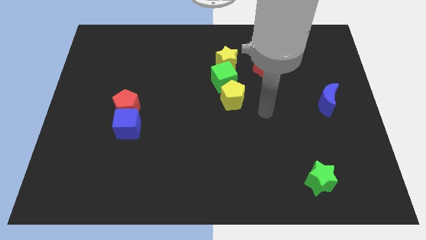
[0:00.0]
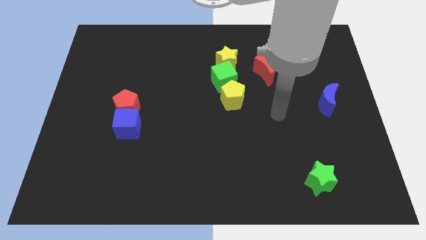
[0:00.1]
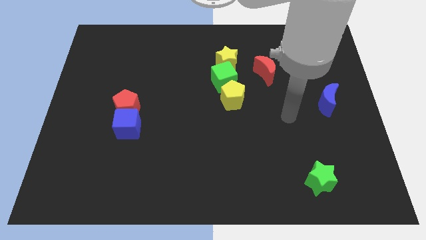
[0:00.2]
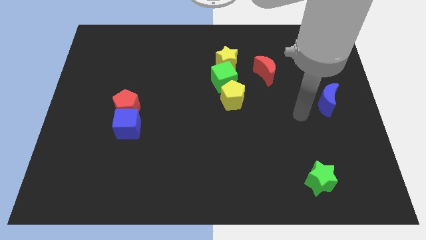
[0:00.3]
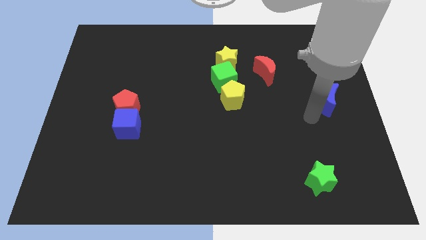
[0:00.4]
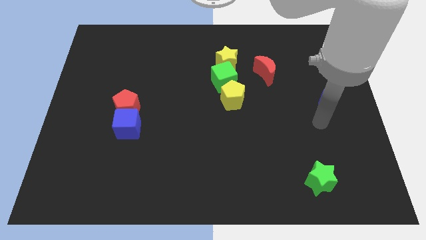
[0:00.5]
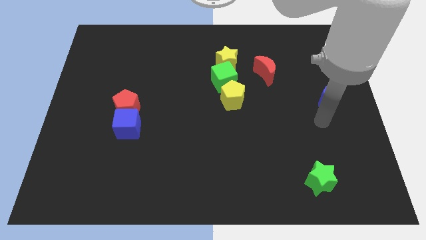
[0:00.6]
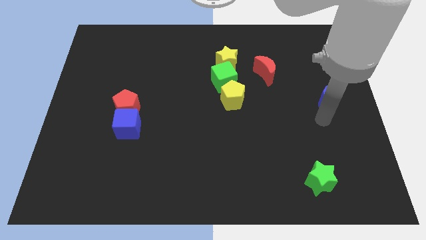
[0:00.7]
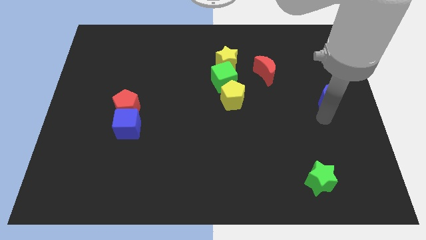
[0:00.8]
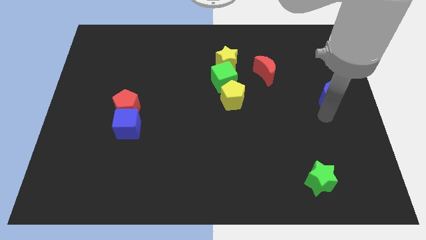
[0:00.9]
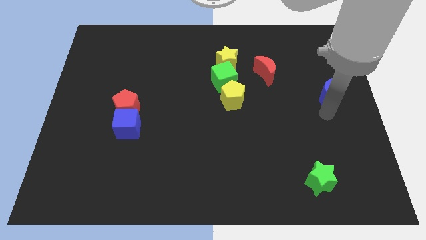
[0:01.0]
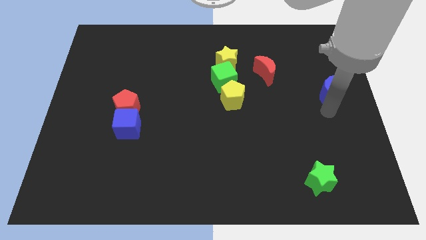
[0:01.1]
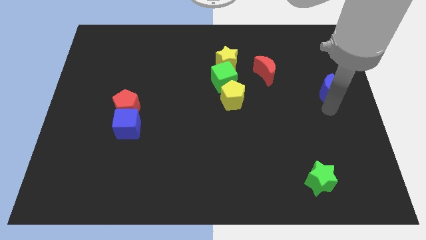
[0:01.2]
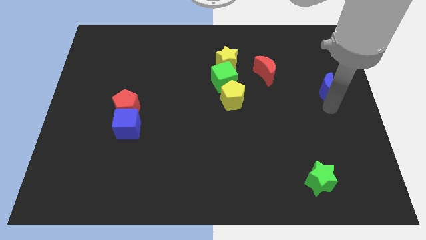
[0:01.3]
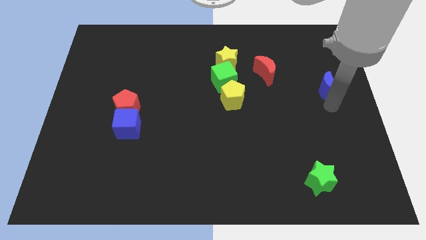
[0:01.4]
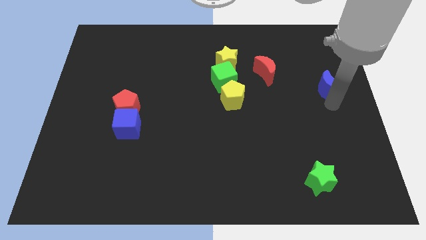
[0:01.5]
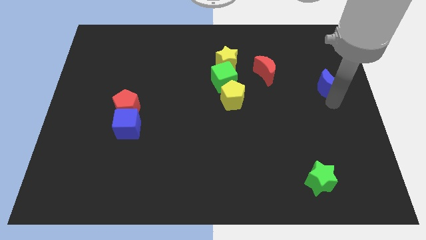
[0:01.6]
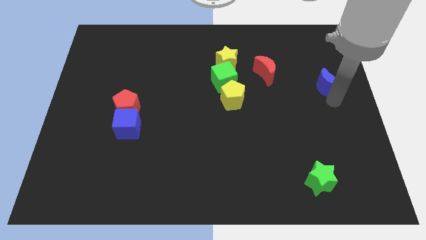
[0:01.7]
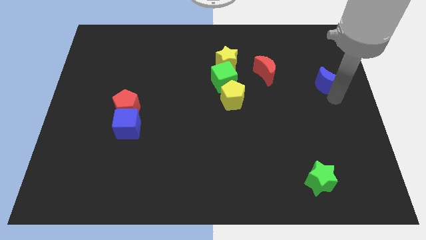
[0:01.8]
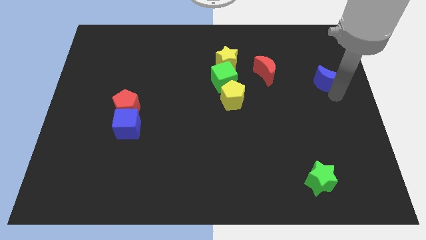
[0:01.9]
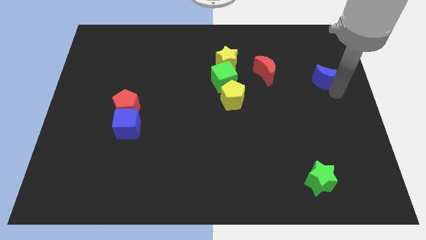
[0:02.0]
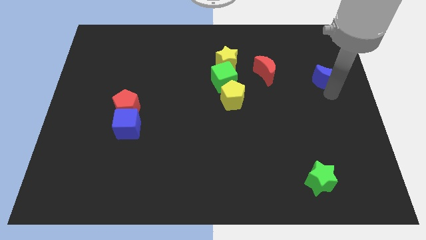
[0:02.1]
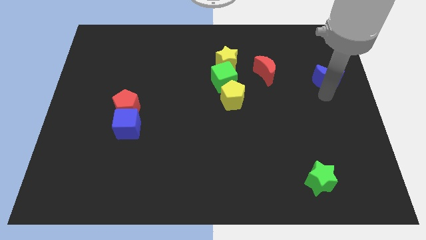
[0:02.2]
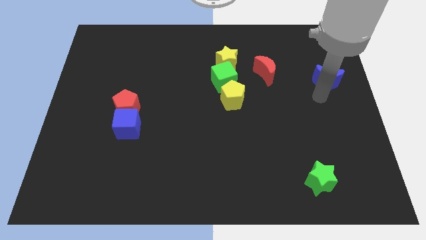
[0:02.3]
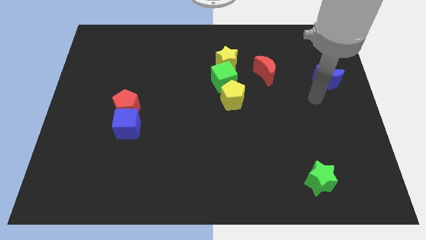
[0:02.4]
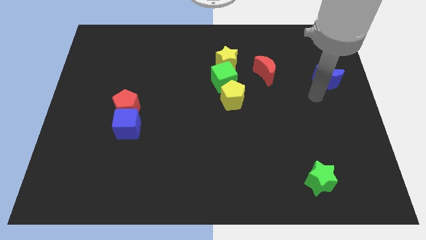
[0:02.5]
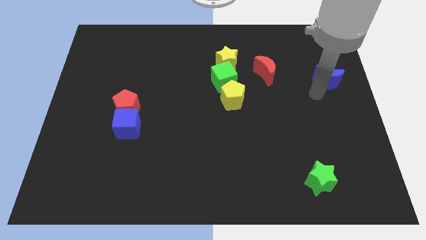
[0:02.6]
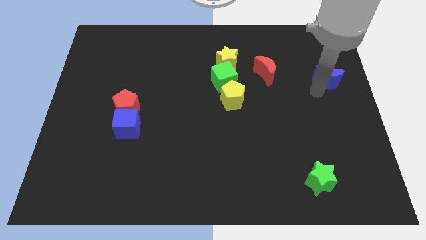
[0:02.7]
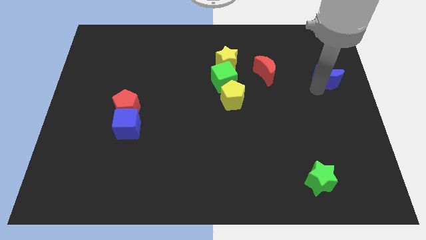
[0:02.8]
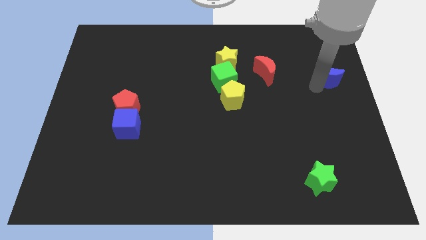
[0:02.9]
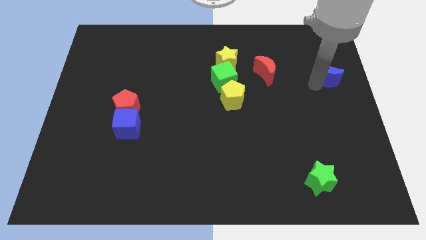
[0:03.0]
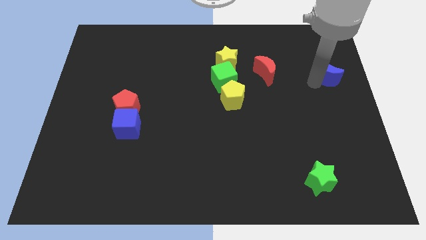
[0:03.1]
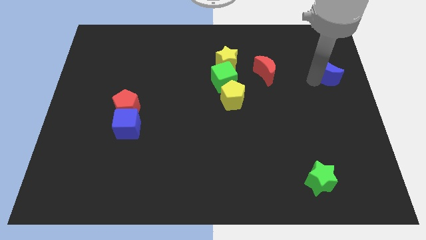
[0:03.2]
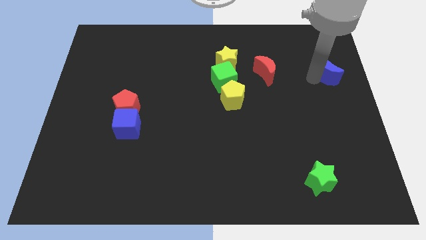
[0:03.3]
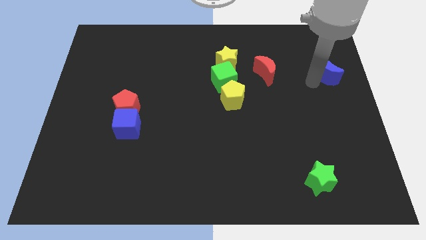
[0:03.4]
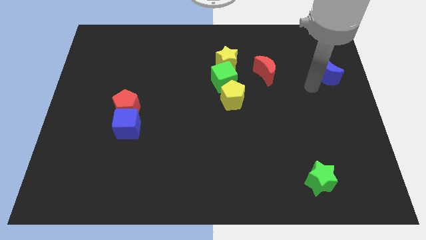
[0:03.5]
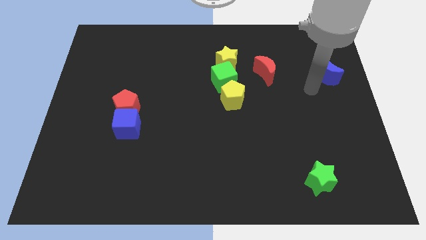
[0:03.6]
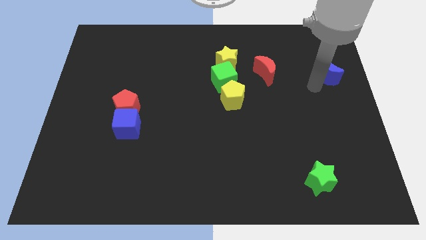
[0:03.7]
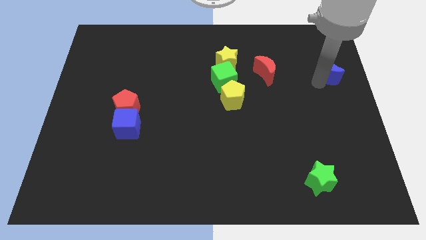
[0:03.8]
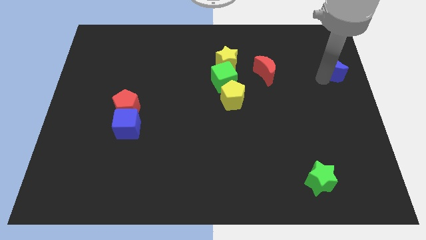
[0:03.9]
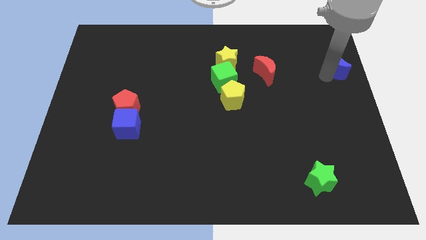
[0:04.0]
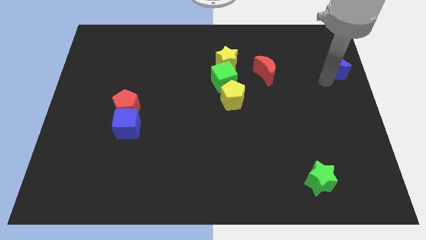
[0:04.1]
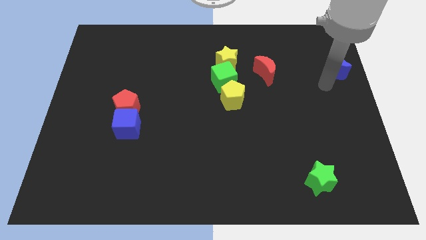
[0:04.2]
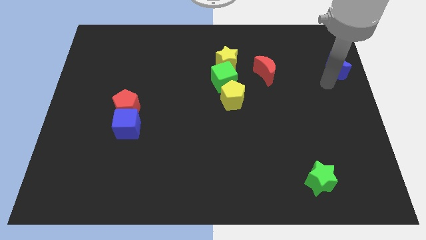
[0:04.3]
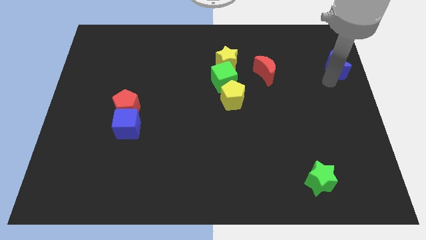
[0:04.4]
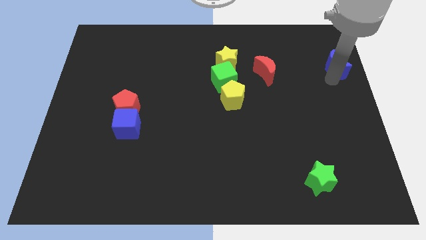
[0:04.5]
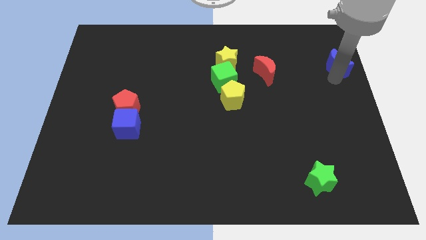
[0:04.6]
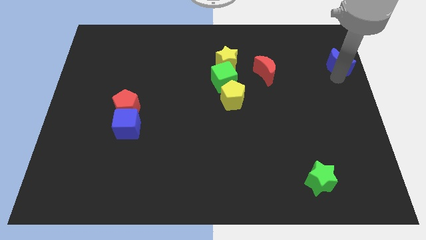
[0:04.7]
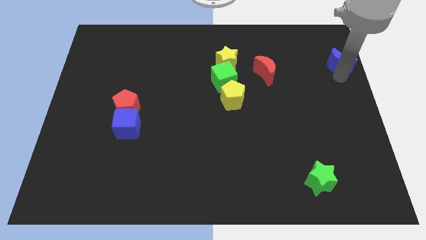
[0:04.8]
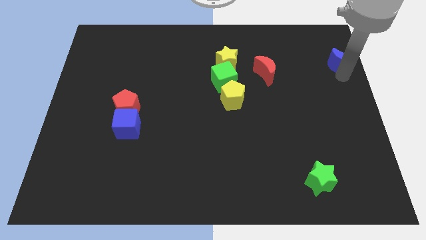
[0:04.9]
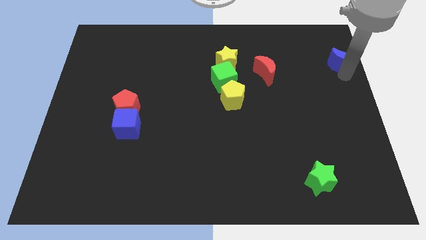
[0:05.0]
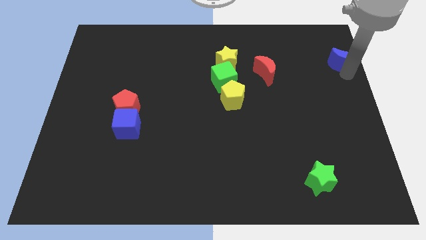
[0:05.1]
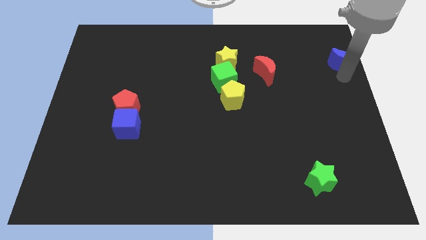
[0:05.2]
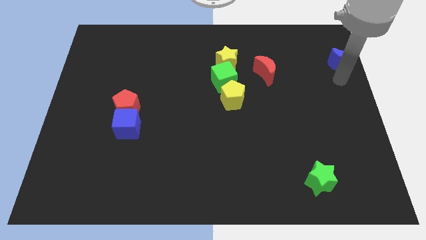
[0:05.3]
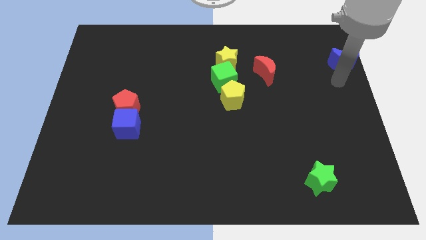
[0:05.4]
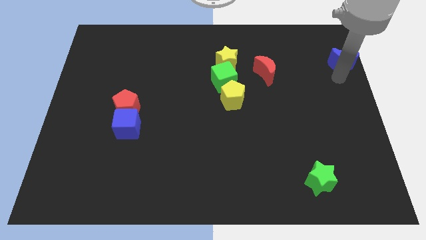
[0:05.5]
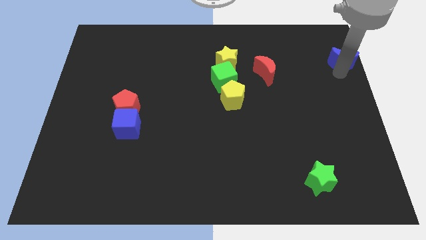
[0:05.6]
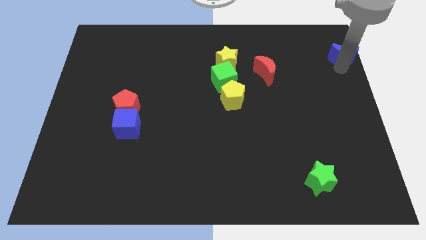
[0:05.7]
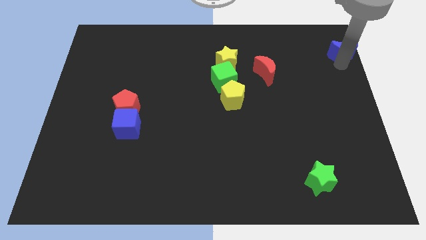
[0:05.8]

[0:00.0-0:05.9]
put the blue moon to the top right corner

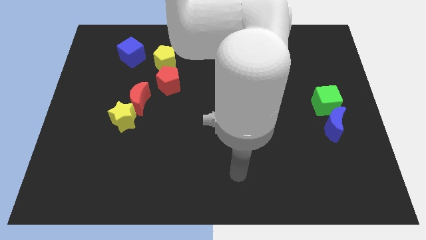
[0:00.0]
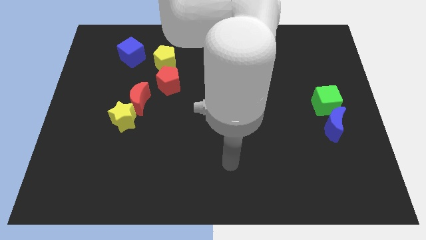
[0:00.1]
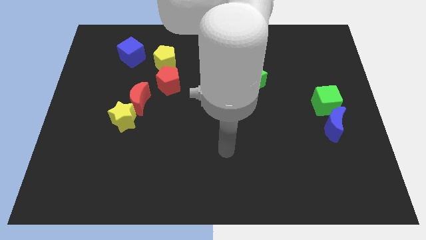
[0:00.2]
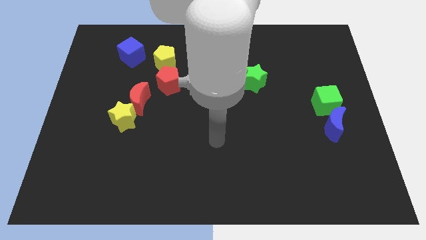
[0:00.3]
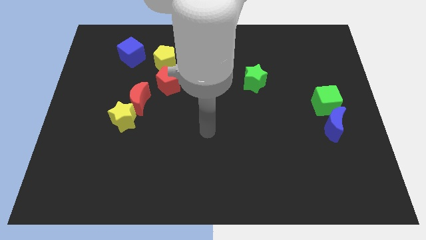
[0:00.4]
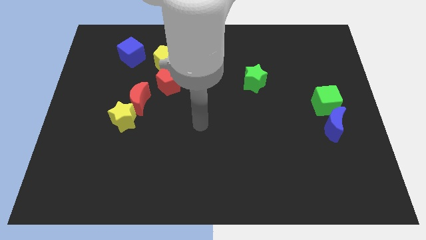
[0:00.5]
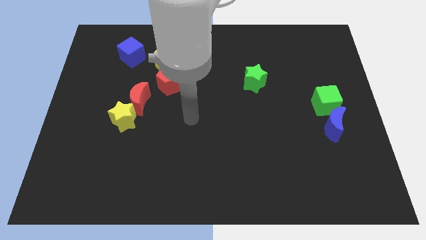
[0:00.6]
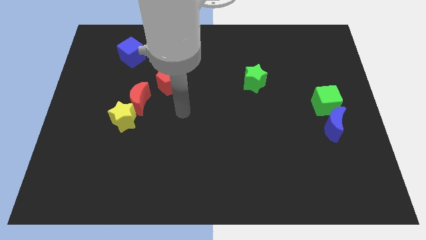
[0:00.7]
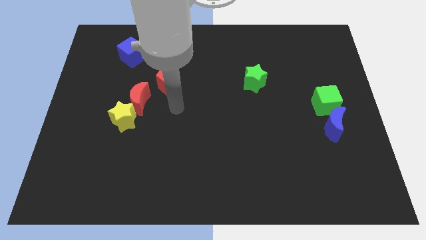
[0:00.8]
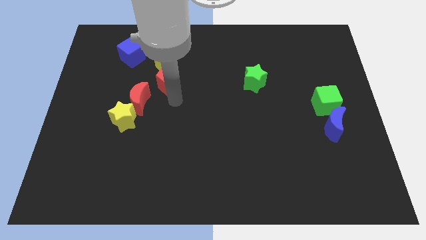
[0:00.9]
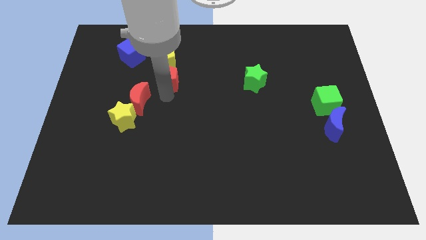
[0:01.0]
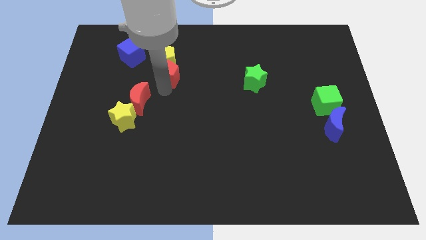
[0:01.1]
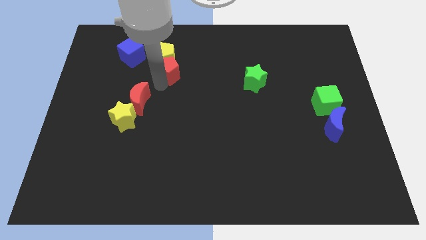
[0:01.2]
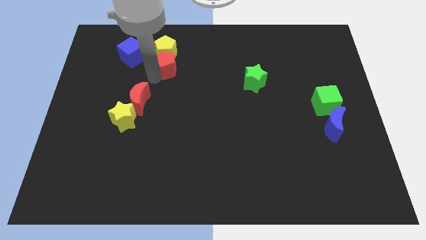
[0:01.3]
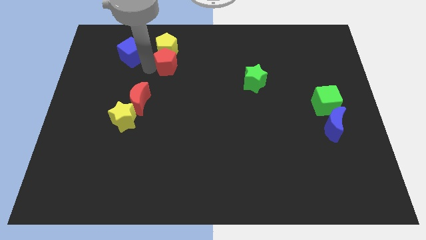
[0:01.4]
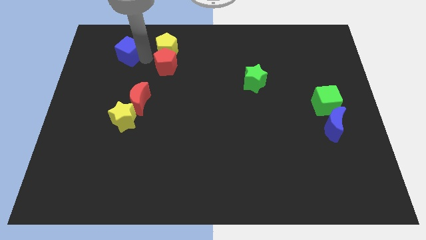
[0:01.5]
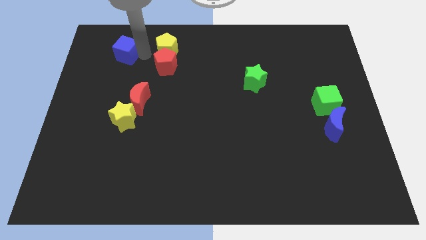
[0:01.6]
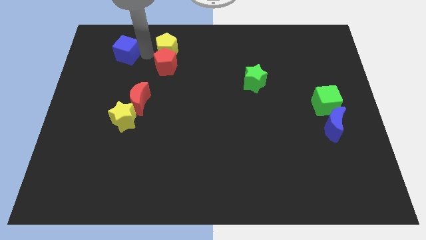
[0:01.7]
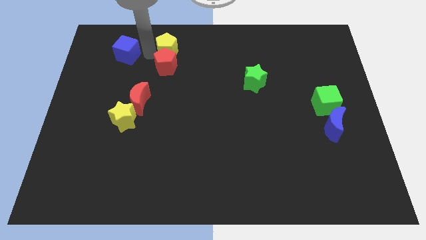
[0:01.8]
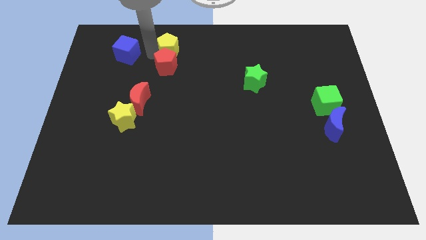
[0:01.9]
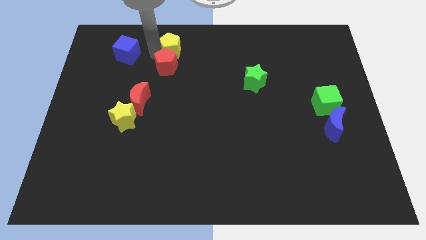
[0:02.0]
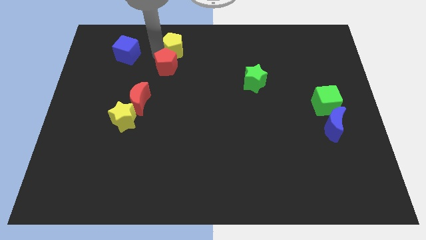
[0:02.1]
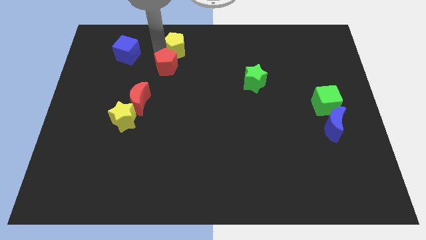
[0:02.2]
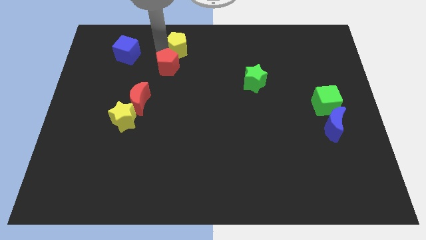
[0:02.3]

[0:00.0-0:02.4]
slide the yellow pentagon to the top side
